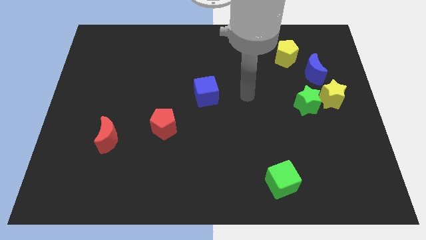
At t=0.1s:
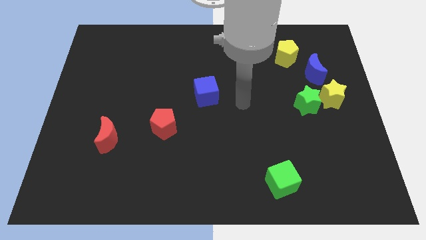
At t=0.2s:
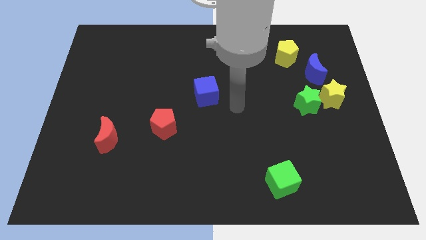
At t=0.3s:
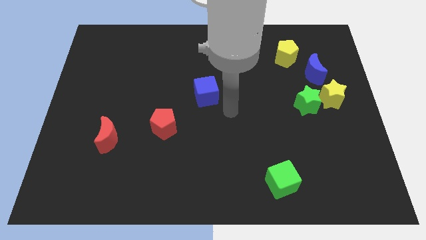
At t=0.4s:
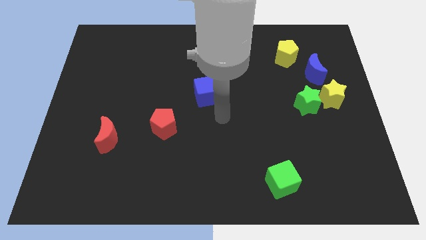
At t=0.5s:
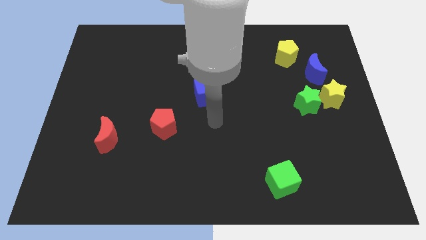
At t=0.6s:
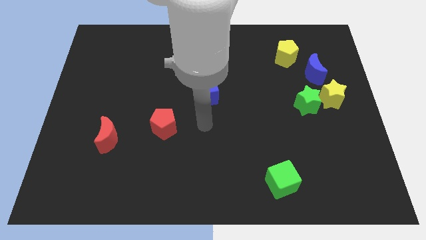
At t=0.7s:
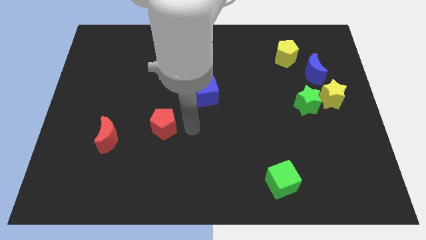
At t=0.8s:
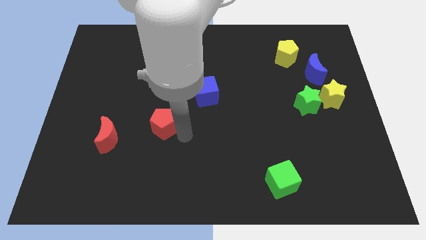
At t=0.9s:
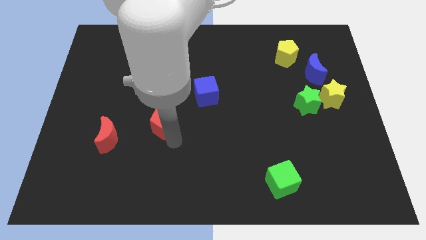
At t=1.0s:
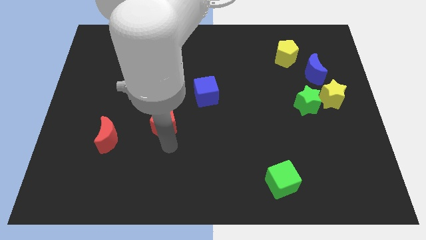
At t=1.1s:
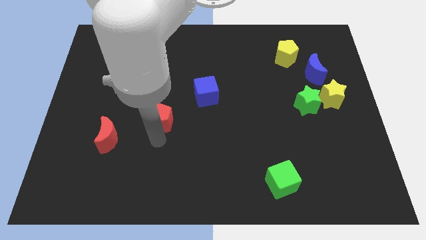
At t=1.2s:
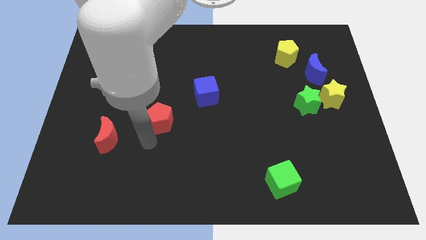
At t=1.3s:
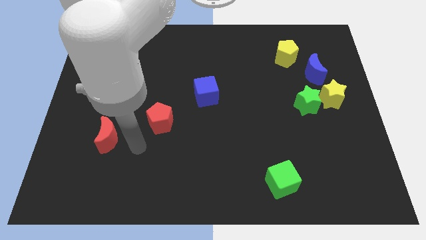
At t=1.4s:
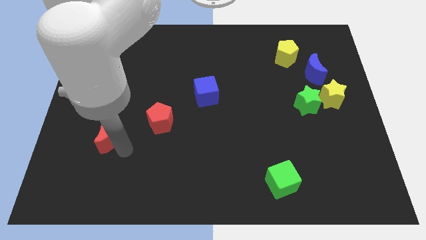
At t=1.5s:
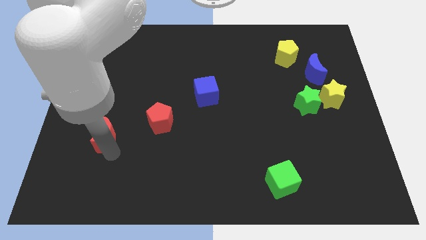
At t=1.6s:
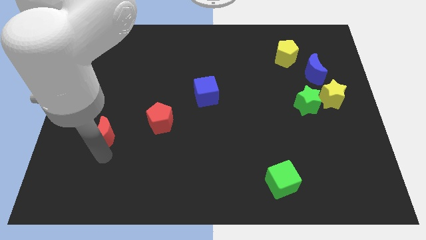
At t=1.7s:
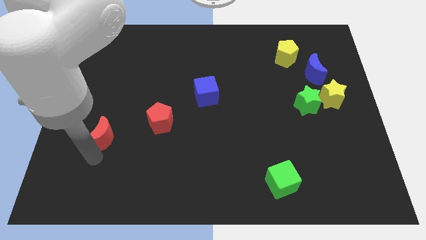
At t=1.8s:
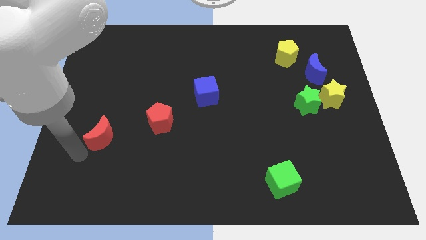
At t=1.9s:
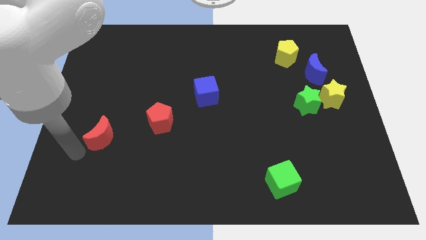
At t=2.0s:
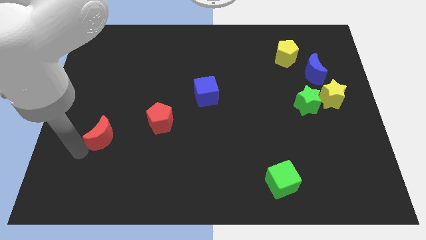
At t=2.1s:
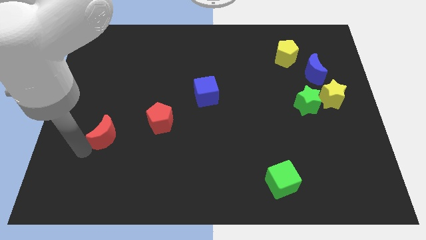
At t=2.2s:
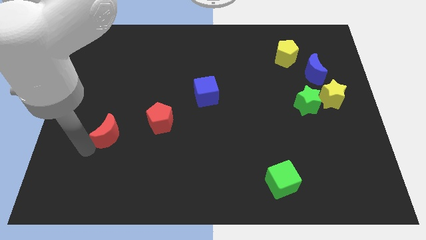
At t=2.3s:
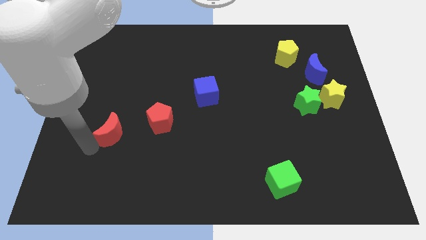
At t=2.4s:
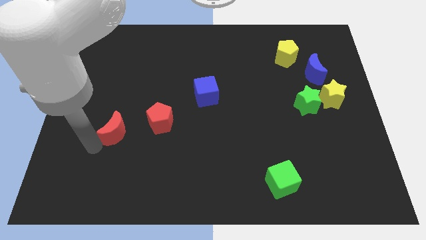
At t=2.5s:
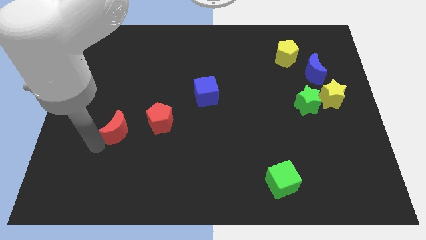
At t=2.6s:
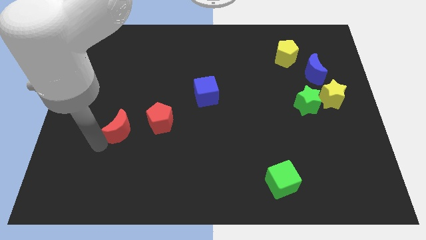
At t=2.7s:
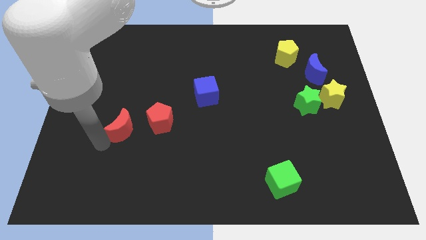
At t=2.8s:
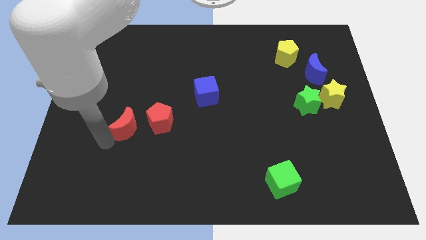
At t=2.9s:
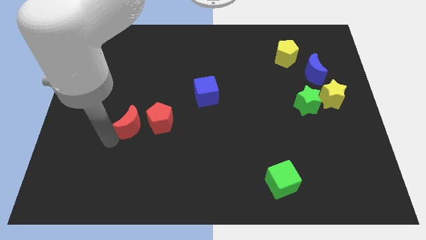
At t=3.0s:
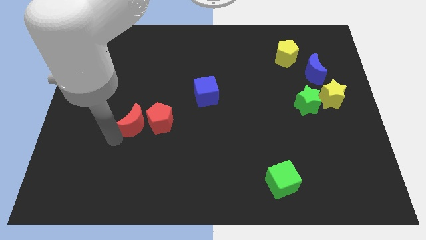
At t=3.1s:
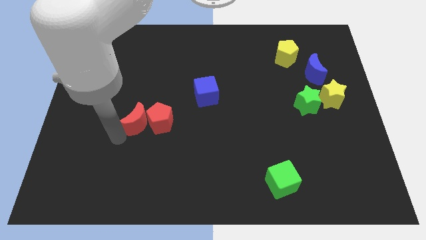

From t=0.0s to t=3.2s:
slightly move the red moon up and then to the right

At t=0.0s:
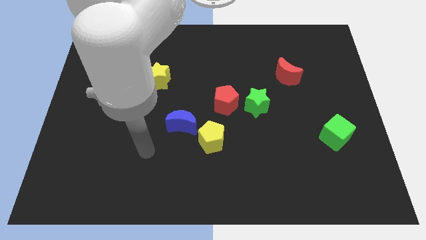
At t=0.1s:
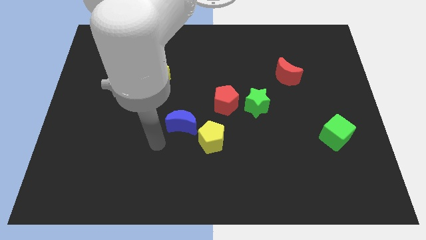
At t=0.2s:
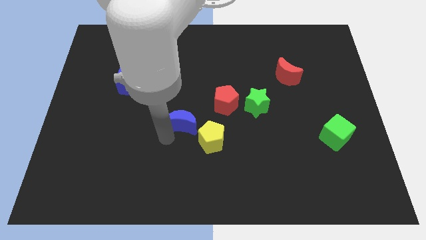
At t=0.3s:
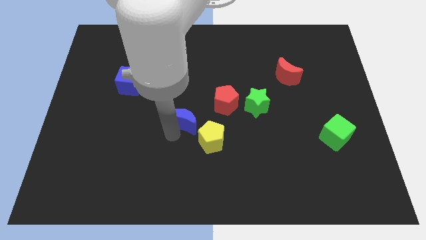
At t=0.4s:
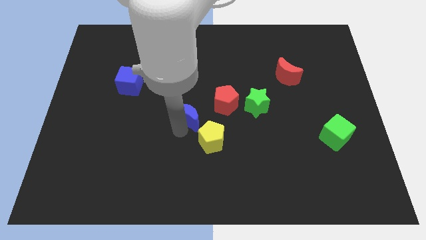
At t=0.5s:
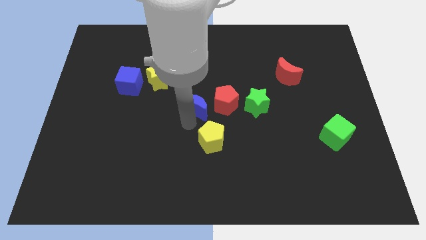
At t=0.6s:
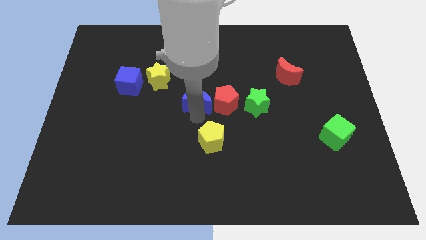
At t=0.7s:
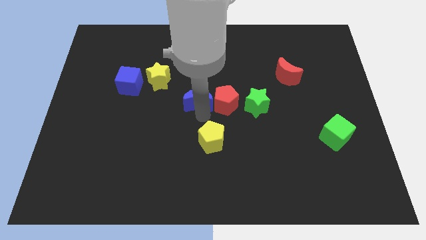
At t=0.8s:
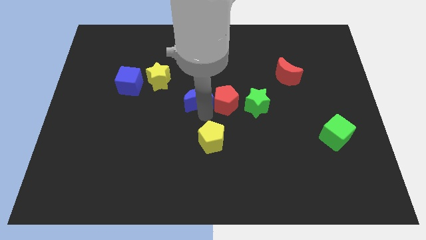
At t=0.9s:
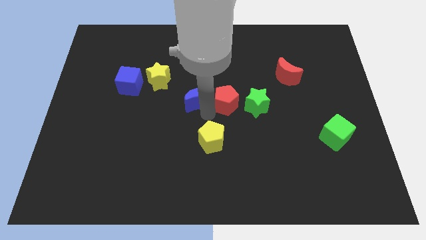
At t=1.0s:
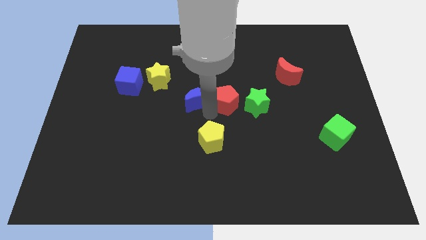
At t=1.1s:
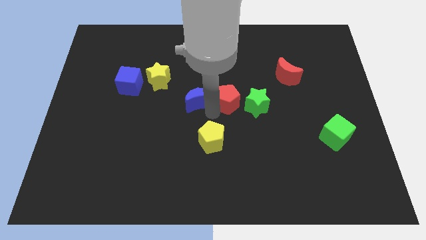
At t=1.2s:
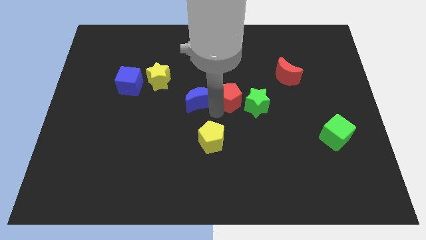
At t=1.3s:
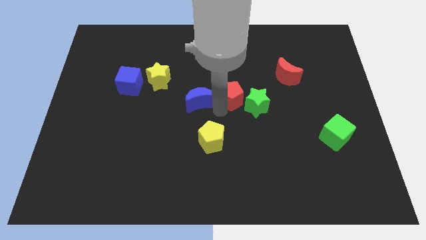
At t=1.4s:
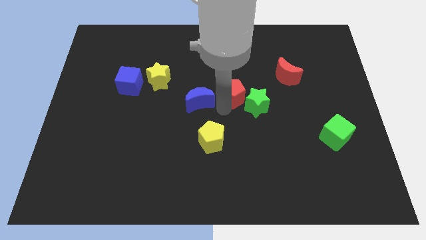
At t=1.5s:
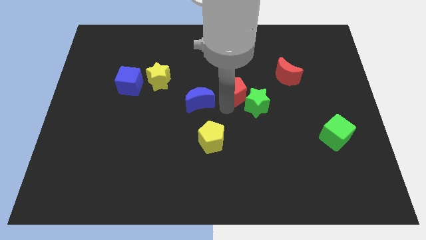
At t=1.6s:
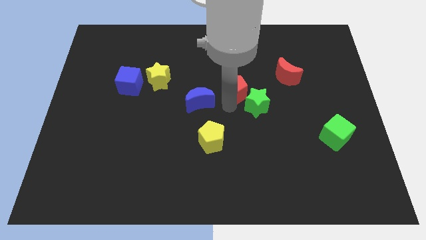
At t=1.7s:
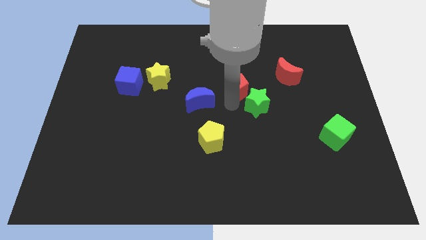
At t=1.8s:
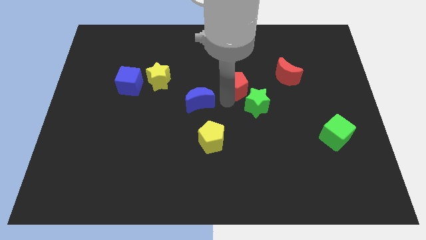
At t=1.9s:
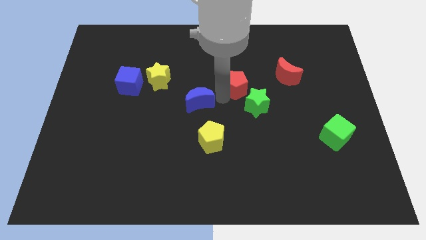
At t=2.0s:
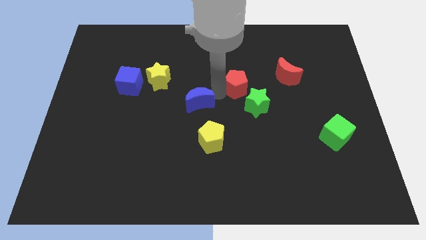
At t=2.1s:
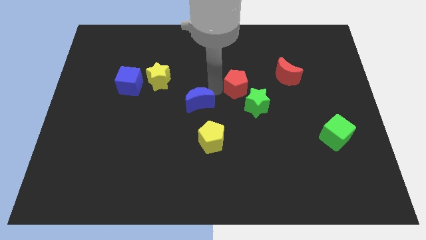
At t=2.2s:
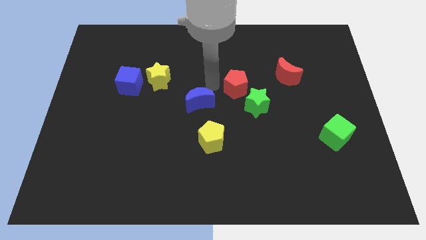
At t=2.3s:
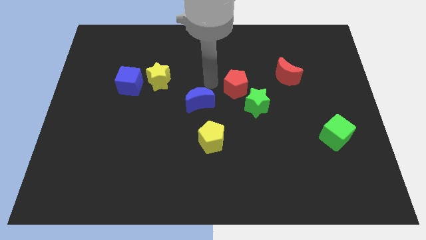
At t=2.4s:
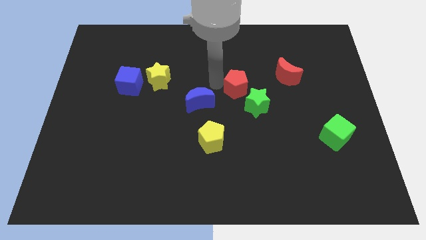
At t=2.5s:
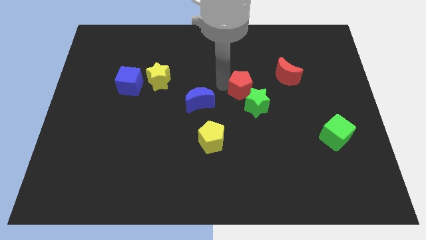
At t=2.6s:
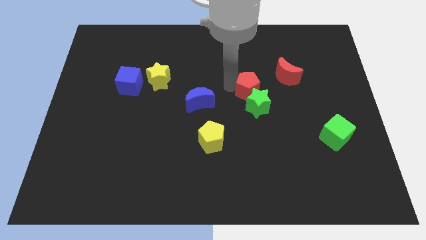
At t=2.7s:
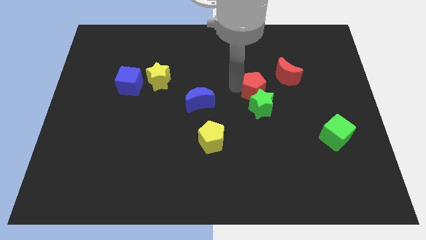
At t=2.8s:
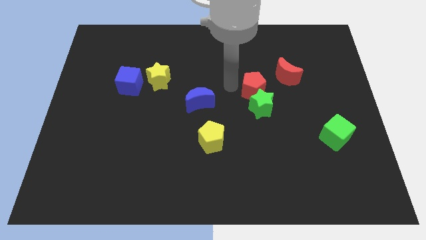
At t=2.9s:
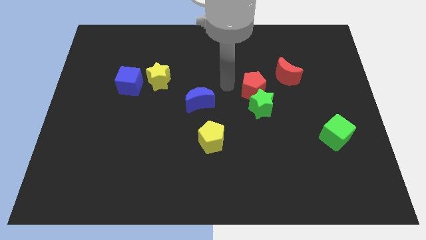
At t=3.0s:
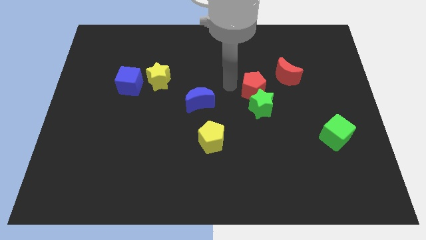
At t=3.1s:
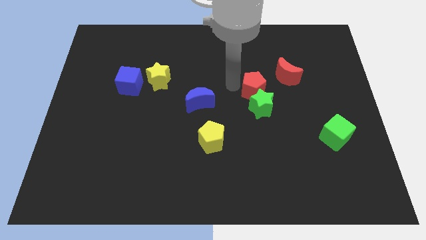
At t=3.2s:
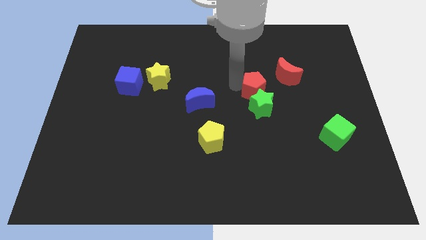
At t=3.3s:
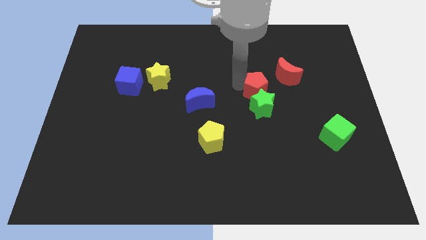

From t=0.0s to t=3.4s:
slightly slide the red pentagon right

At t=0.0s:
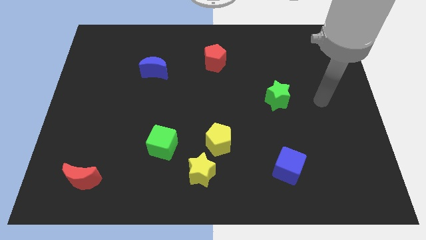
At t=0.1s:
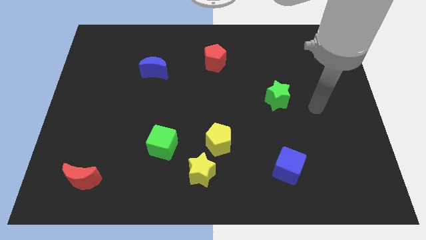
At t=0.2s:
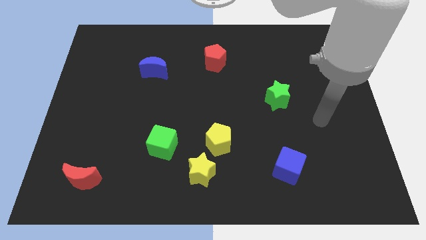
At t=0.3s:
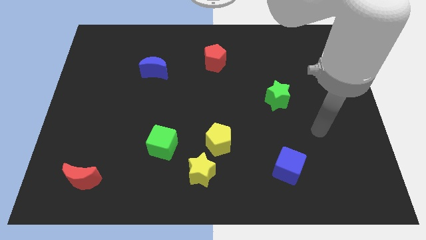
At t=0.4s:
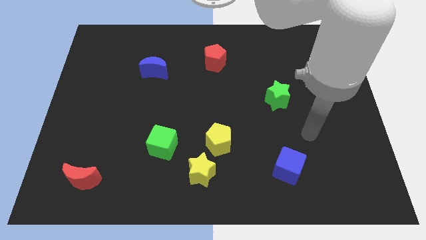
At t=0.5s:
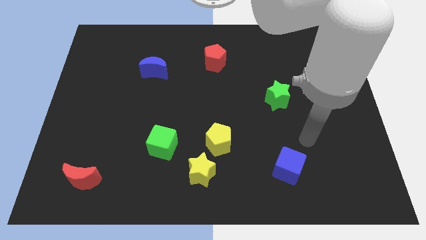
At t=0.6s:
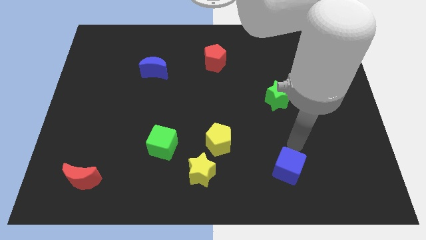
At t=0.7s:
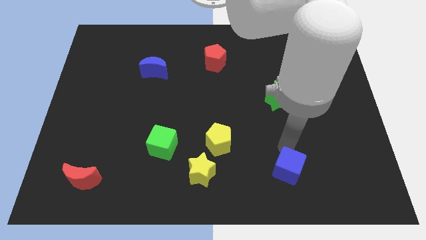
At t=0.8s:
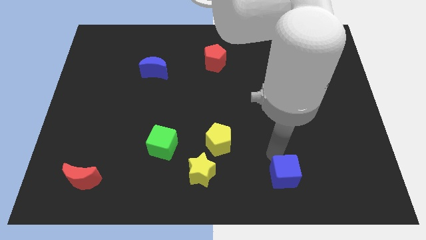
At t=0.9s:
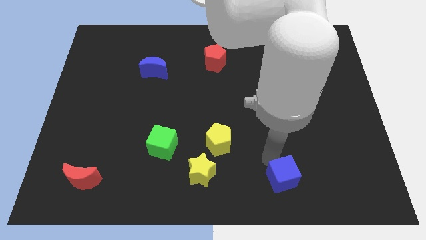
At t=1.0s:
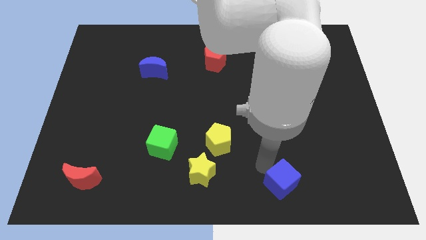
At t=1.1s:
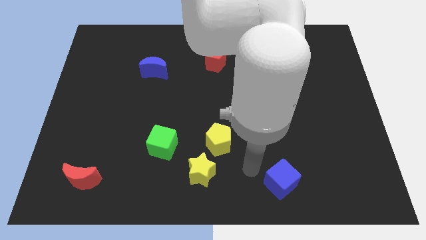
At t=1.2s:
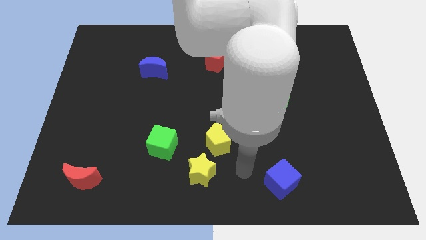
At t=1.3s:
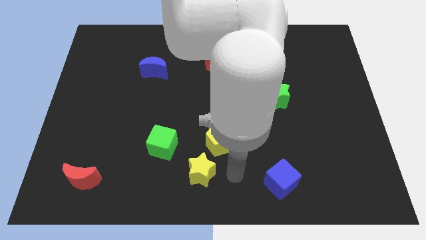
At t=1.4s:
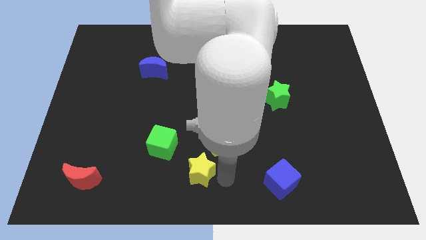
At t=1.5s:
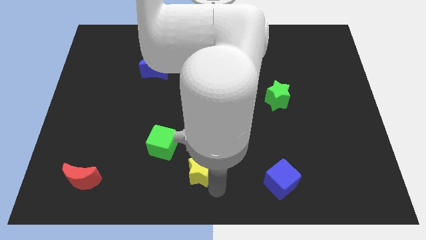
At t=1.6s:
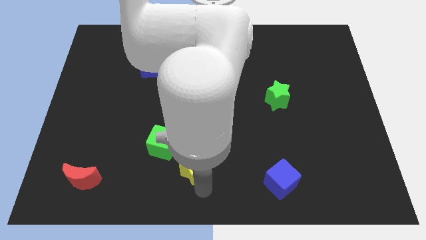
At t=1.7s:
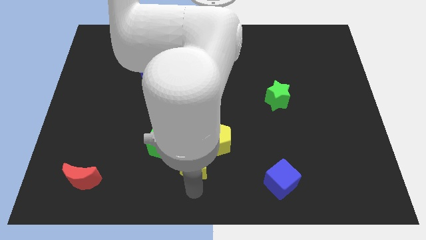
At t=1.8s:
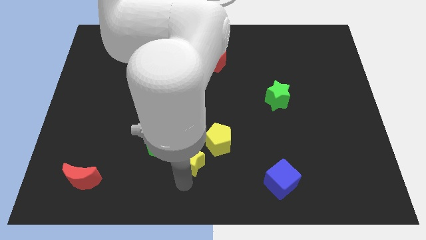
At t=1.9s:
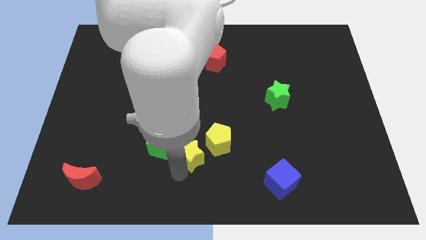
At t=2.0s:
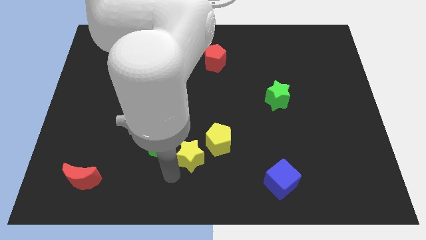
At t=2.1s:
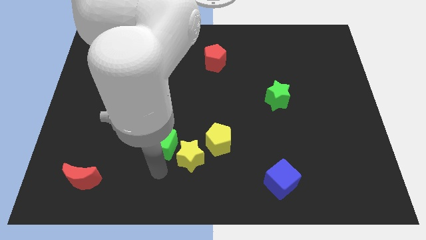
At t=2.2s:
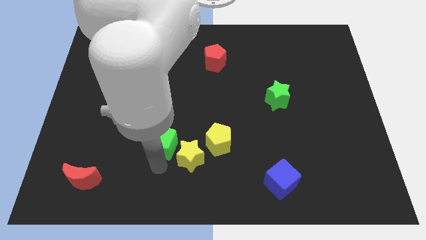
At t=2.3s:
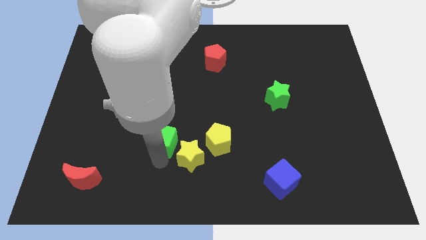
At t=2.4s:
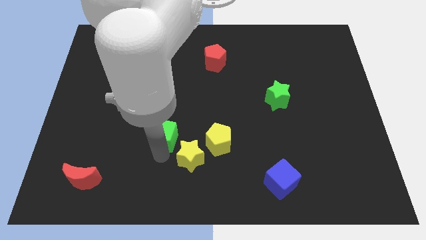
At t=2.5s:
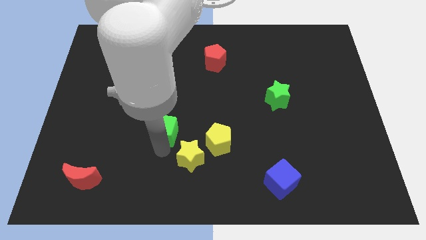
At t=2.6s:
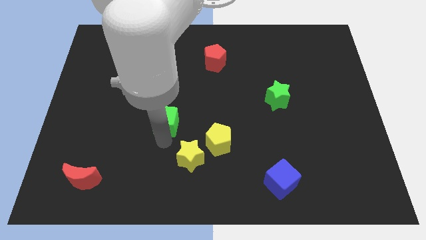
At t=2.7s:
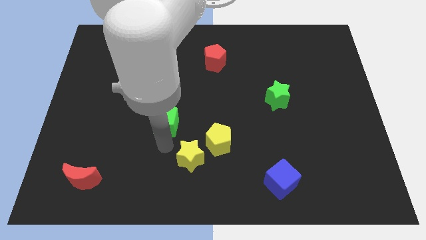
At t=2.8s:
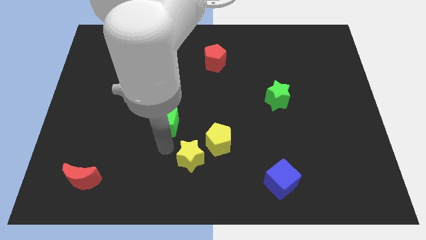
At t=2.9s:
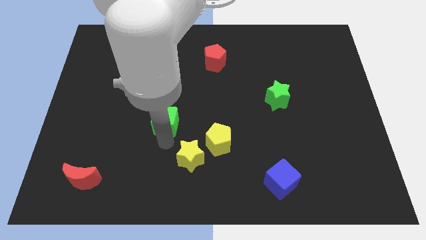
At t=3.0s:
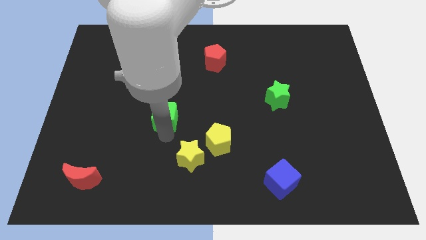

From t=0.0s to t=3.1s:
slightly slide the green cube upwards
